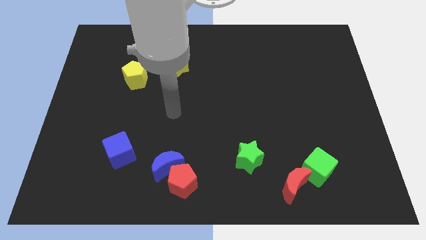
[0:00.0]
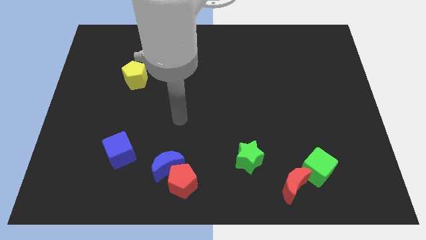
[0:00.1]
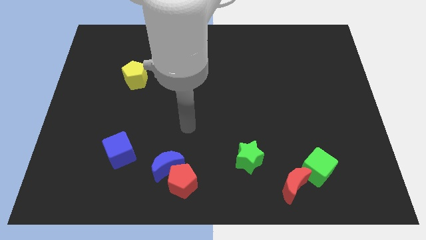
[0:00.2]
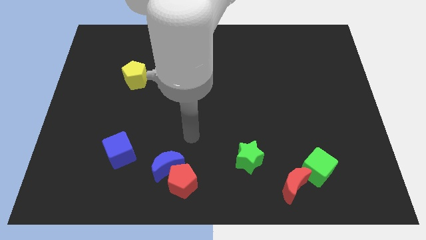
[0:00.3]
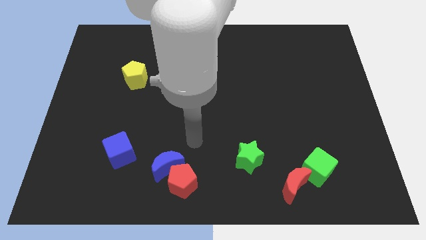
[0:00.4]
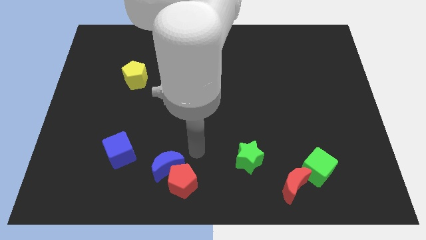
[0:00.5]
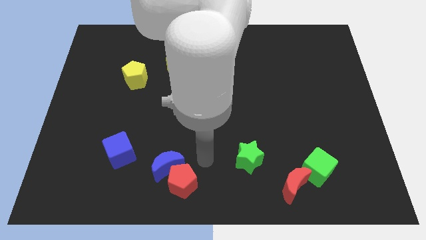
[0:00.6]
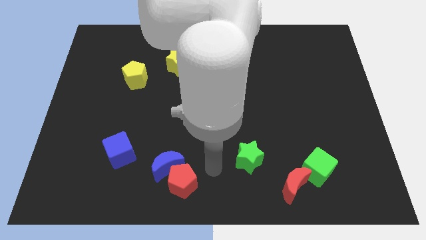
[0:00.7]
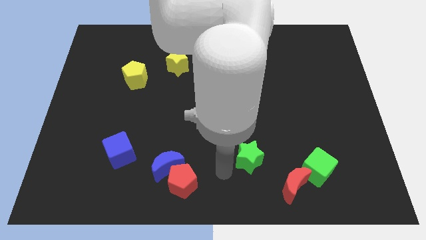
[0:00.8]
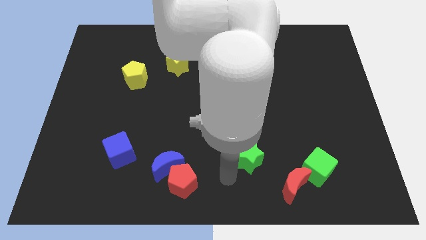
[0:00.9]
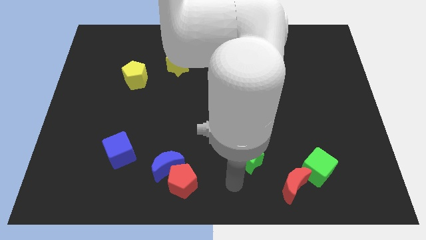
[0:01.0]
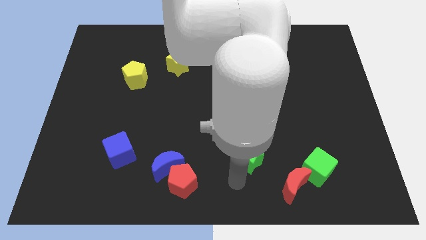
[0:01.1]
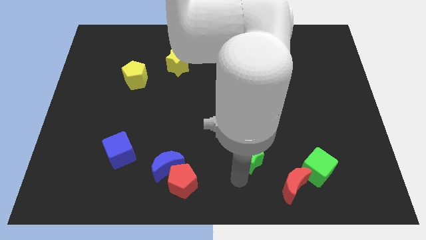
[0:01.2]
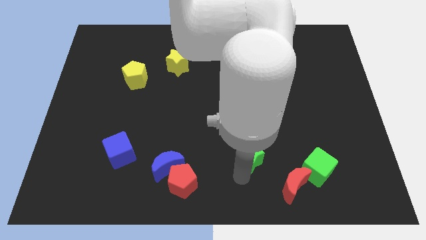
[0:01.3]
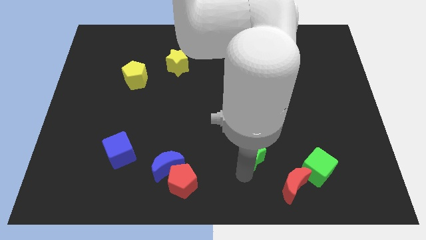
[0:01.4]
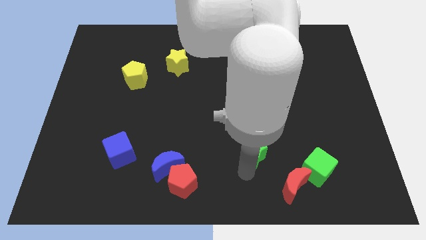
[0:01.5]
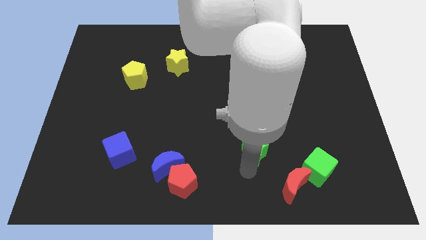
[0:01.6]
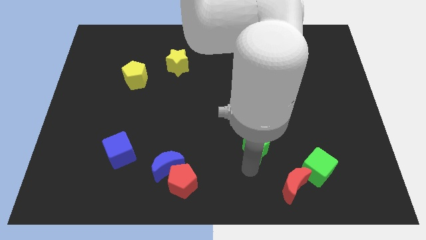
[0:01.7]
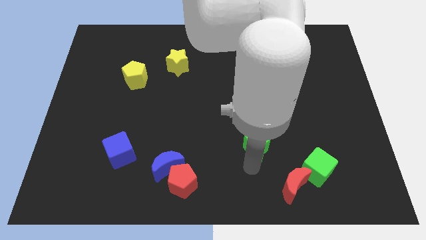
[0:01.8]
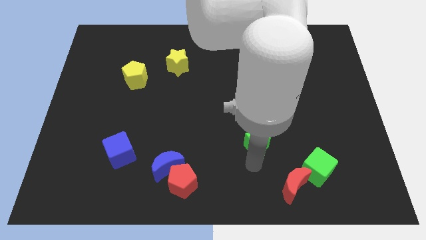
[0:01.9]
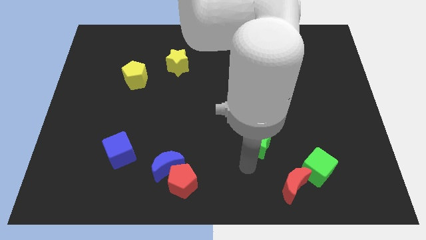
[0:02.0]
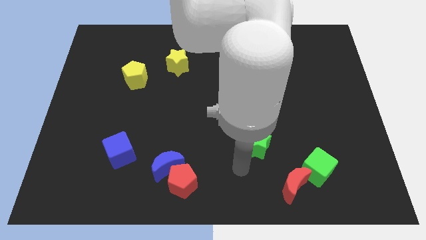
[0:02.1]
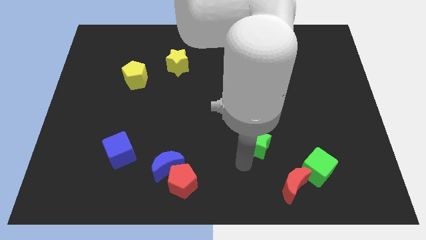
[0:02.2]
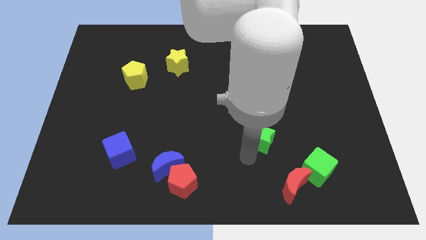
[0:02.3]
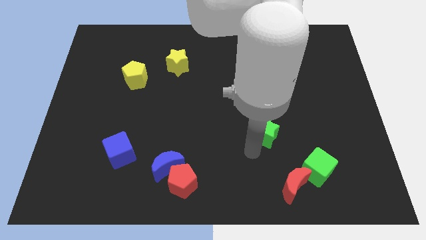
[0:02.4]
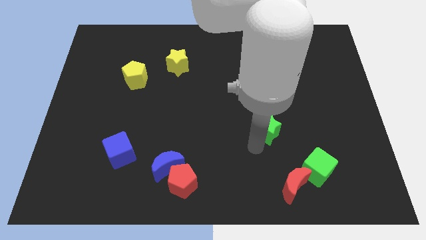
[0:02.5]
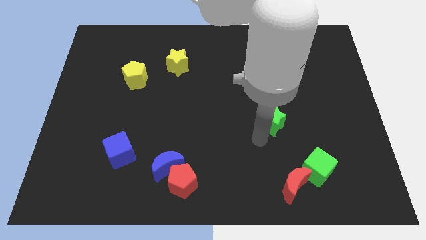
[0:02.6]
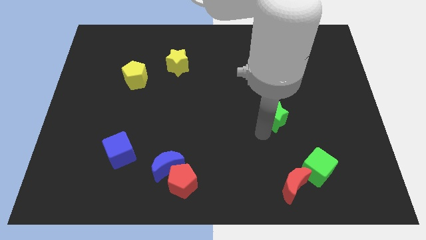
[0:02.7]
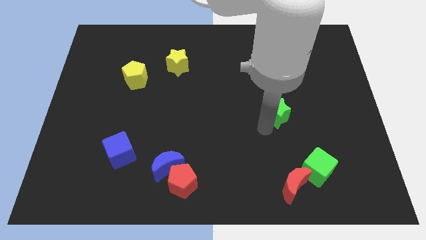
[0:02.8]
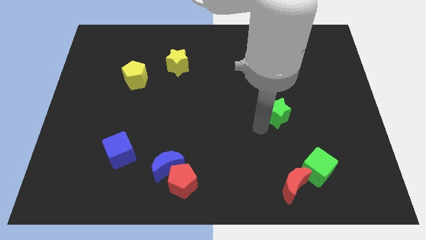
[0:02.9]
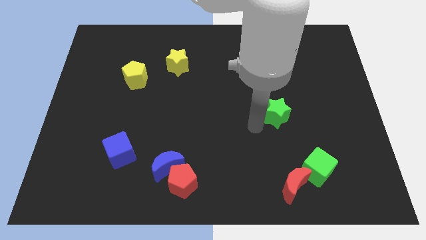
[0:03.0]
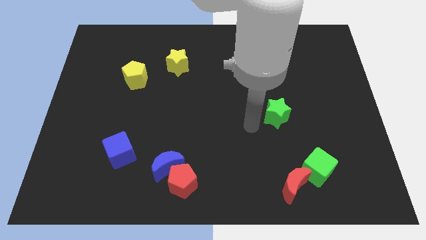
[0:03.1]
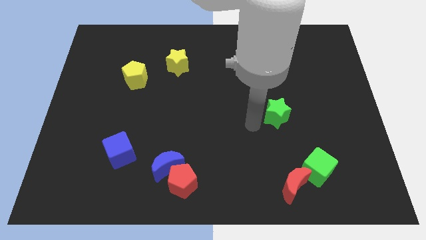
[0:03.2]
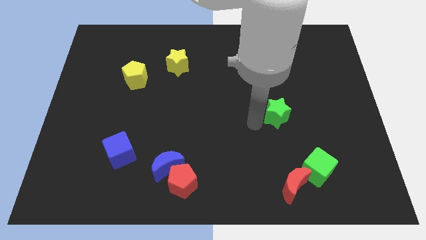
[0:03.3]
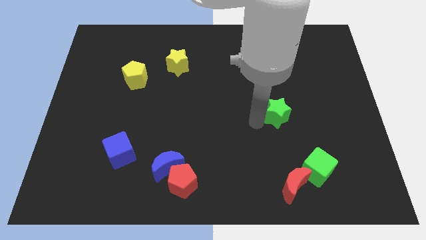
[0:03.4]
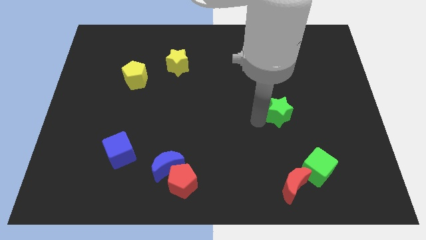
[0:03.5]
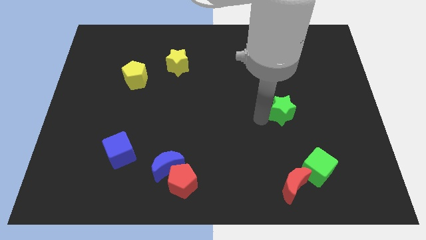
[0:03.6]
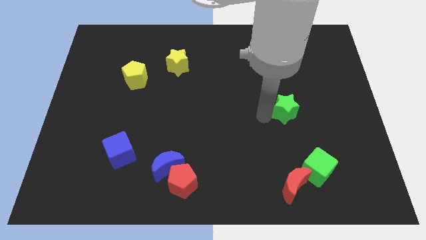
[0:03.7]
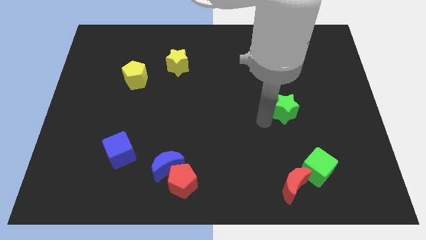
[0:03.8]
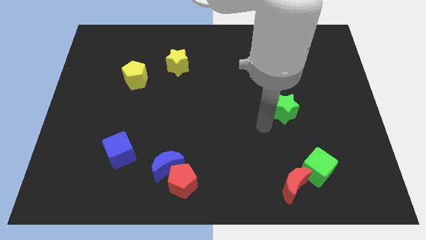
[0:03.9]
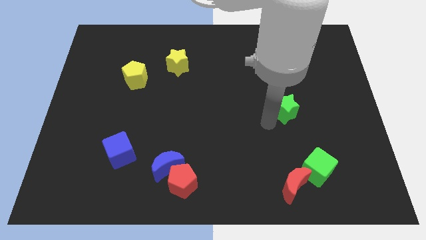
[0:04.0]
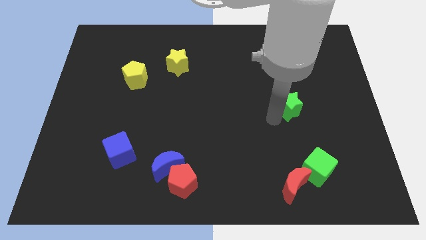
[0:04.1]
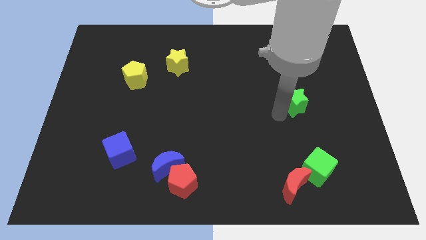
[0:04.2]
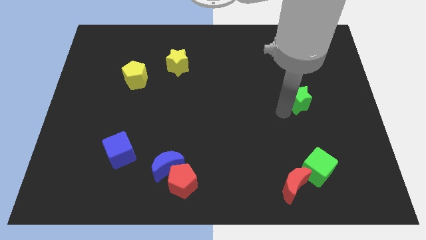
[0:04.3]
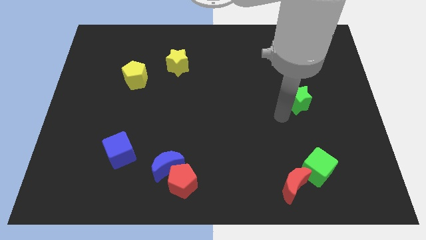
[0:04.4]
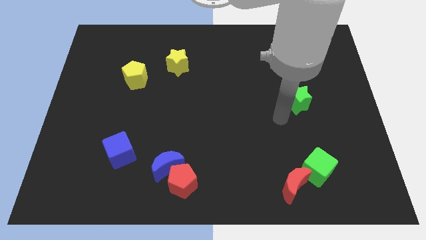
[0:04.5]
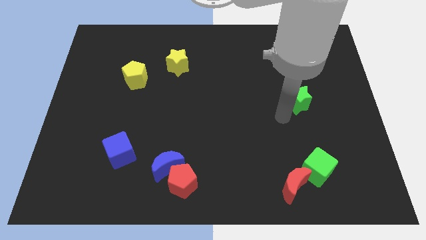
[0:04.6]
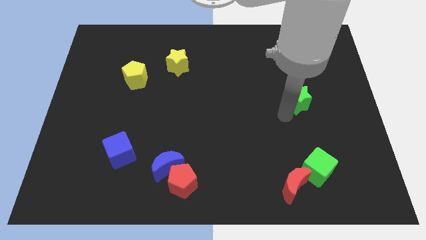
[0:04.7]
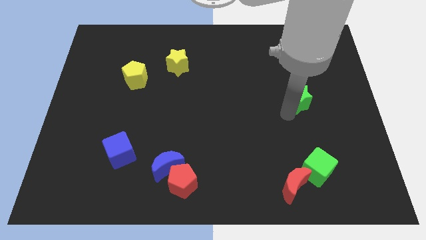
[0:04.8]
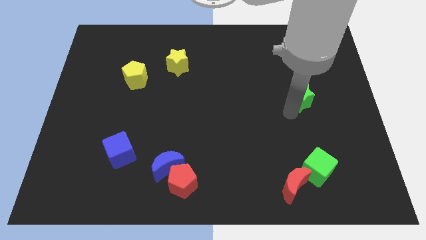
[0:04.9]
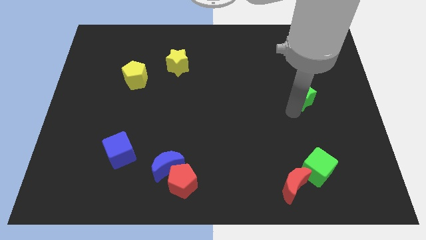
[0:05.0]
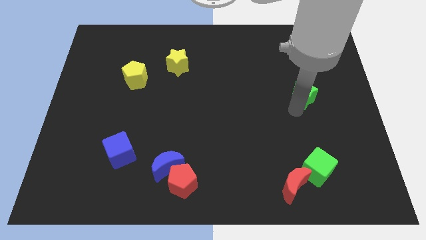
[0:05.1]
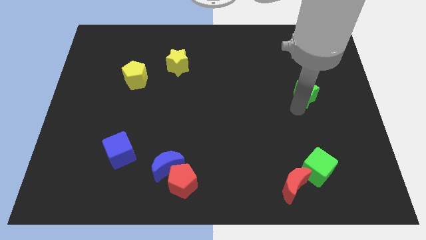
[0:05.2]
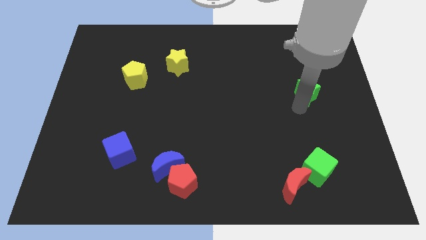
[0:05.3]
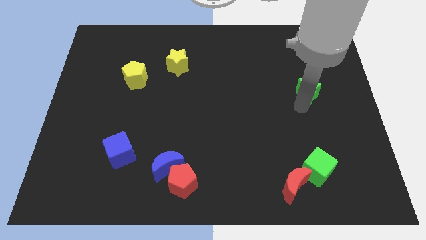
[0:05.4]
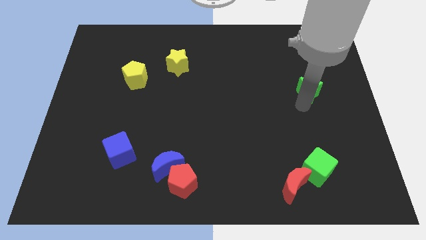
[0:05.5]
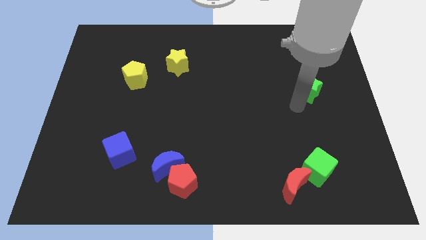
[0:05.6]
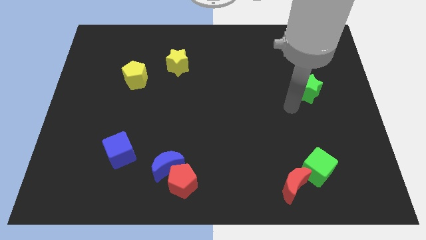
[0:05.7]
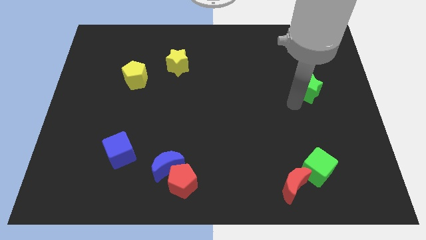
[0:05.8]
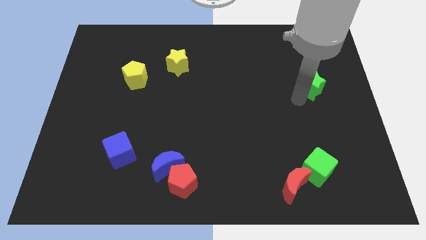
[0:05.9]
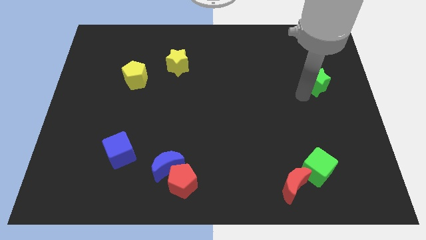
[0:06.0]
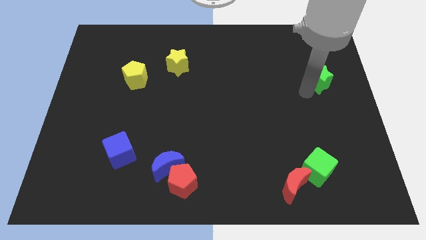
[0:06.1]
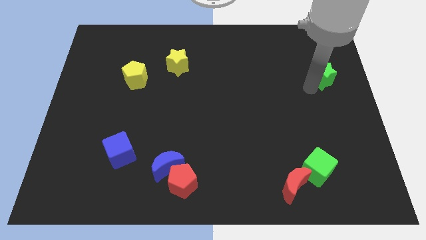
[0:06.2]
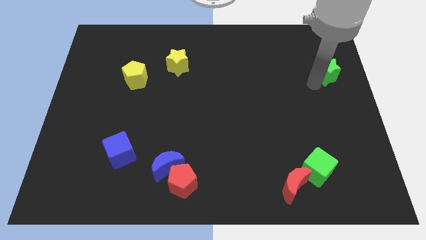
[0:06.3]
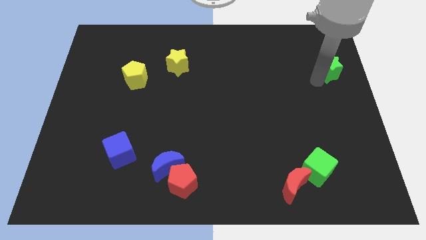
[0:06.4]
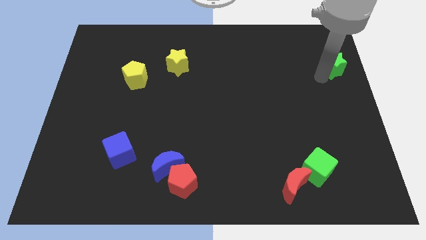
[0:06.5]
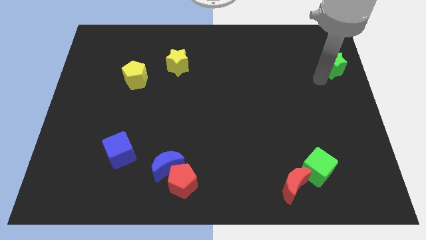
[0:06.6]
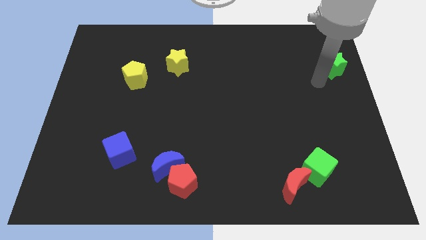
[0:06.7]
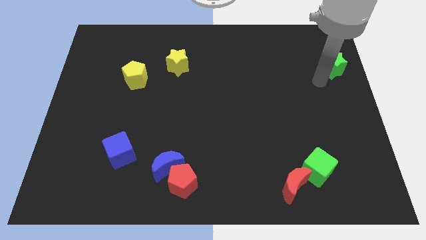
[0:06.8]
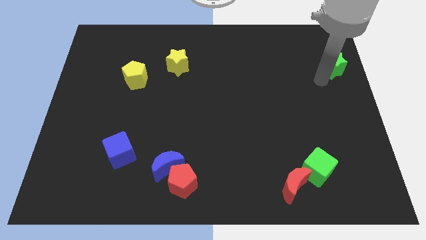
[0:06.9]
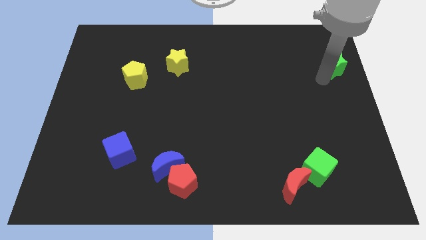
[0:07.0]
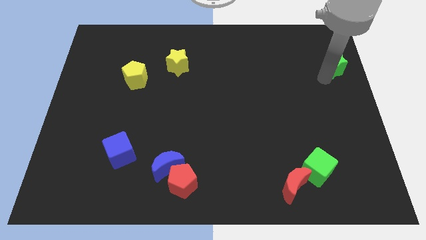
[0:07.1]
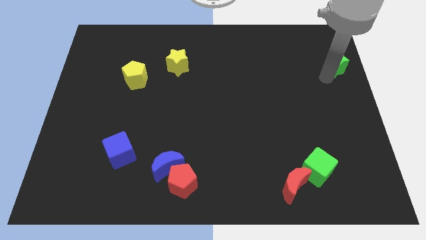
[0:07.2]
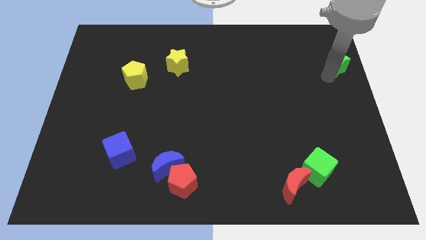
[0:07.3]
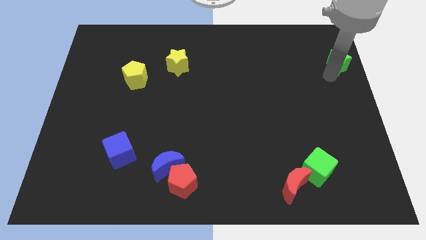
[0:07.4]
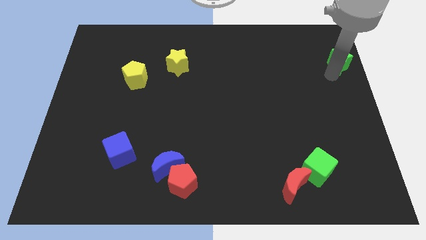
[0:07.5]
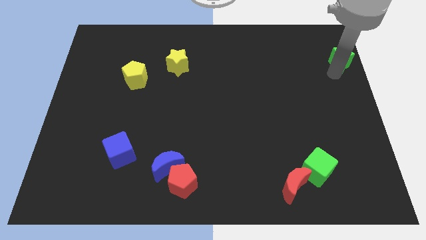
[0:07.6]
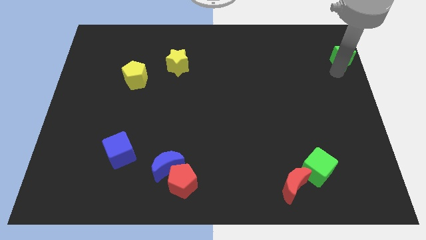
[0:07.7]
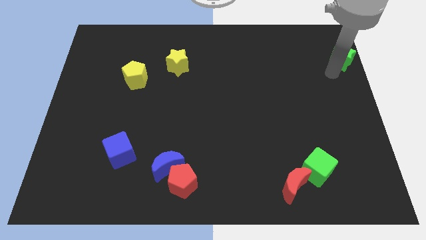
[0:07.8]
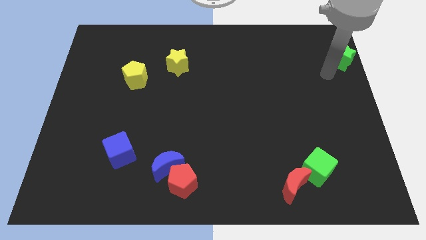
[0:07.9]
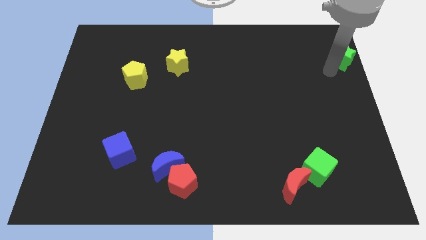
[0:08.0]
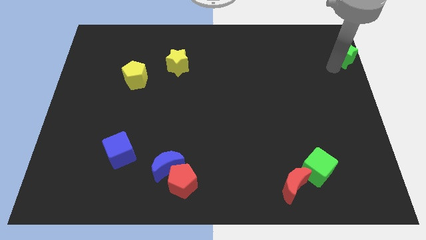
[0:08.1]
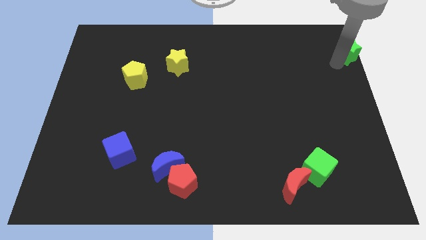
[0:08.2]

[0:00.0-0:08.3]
push the green star to the top right corner
